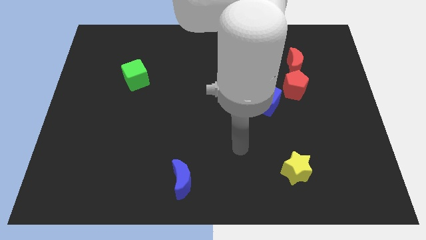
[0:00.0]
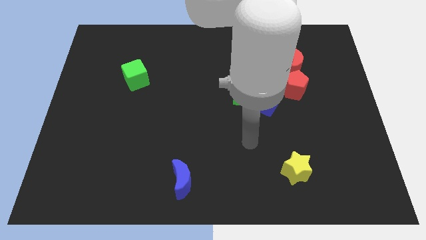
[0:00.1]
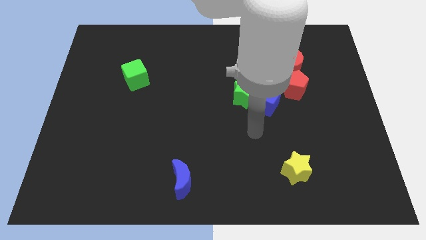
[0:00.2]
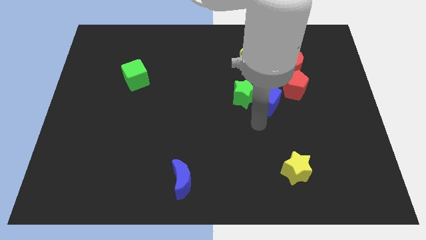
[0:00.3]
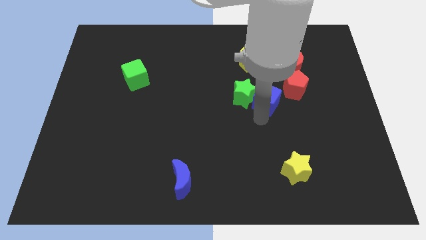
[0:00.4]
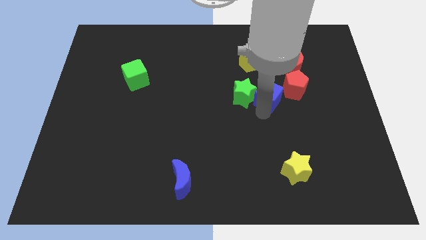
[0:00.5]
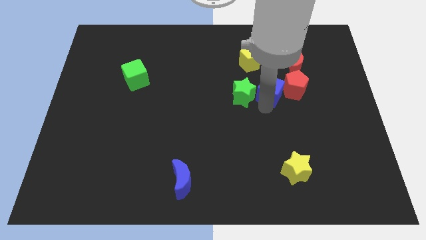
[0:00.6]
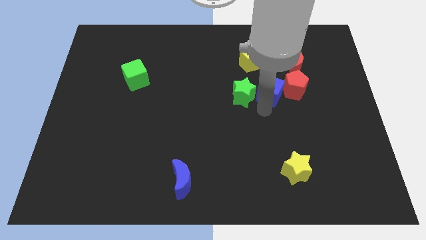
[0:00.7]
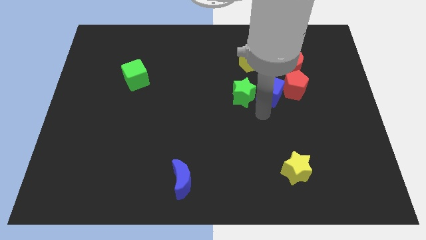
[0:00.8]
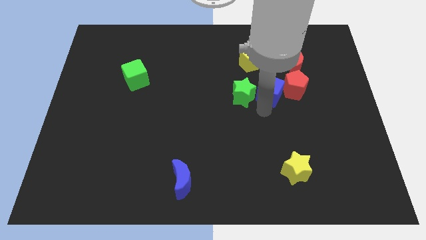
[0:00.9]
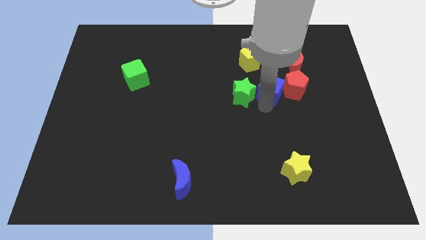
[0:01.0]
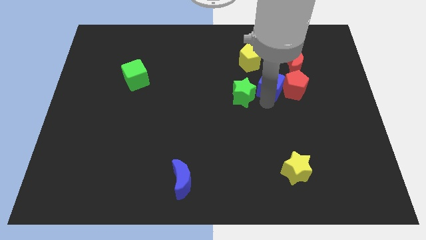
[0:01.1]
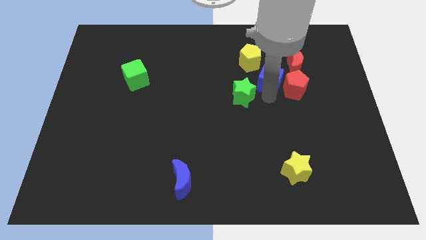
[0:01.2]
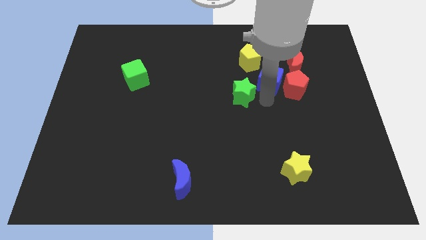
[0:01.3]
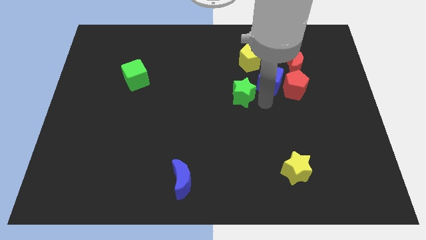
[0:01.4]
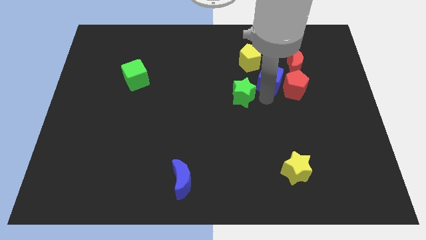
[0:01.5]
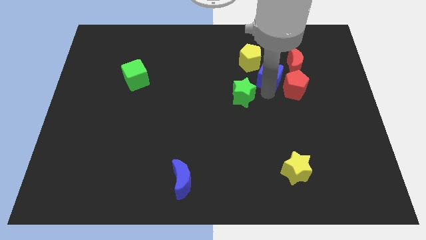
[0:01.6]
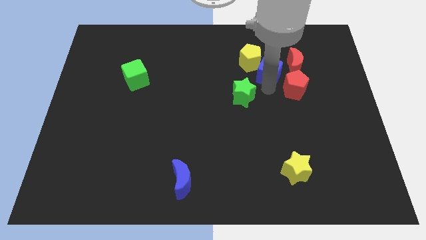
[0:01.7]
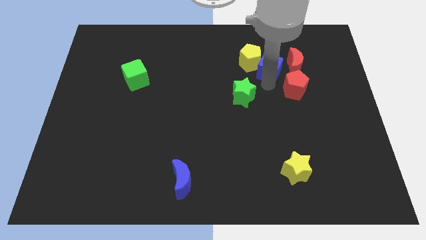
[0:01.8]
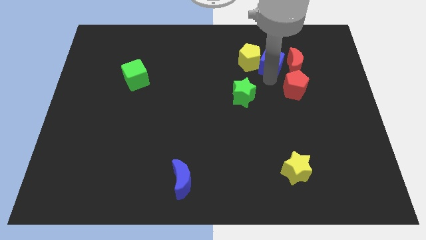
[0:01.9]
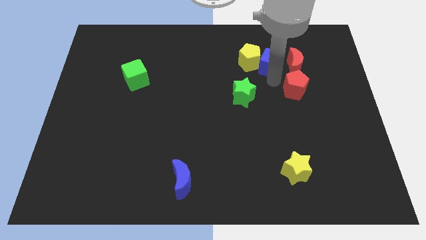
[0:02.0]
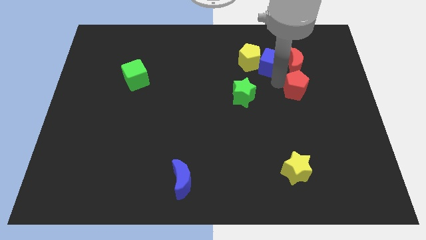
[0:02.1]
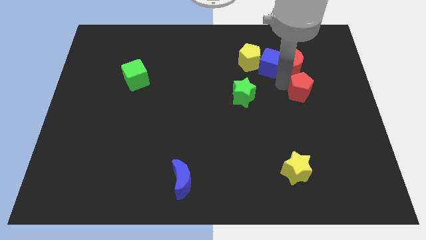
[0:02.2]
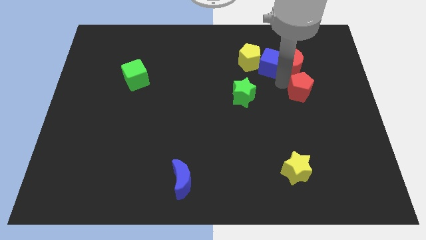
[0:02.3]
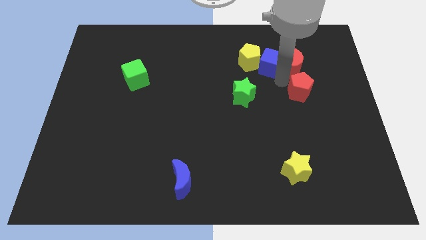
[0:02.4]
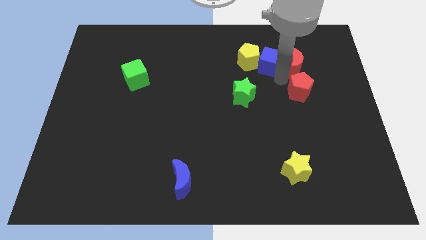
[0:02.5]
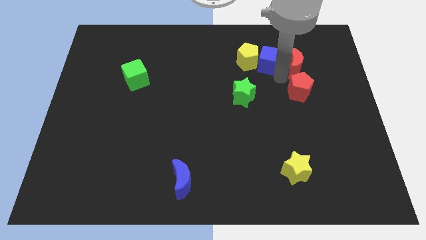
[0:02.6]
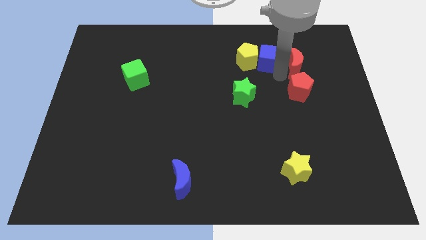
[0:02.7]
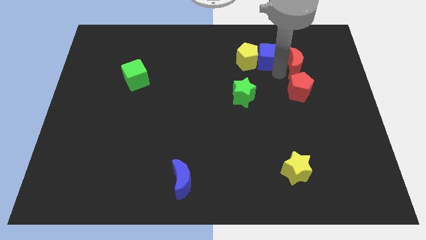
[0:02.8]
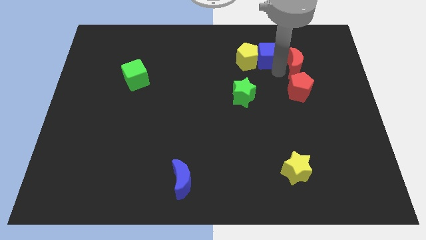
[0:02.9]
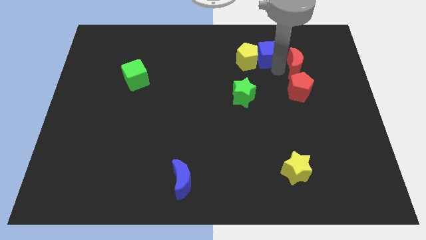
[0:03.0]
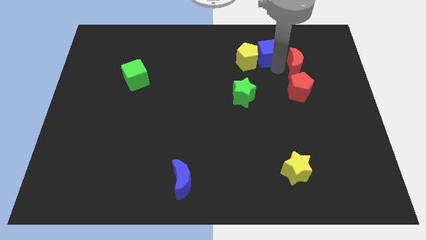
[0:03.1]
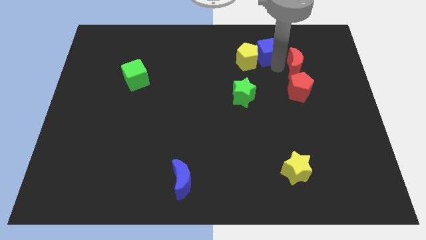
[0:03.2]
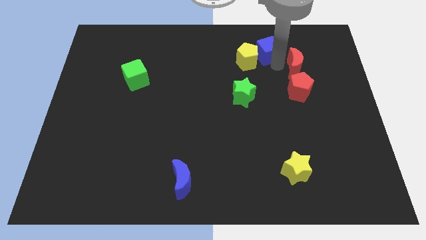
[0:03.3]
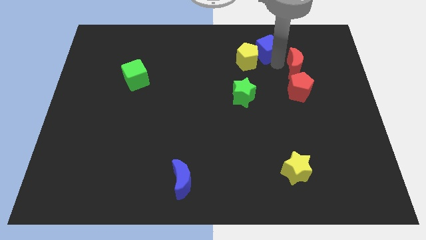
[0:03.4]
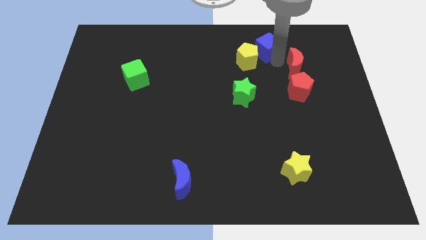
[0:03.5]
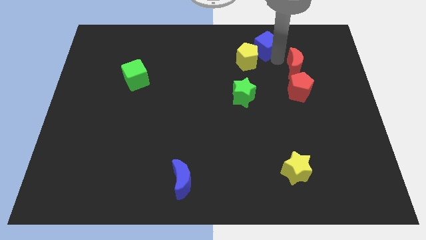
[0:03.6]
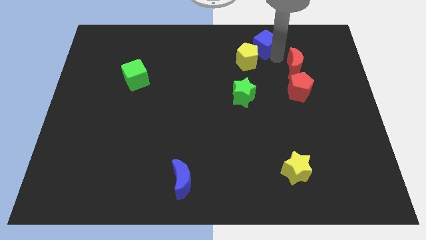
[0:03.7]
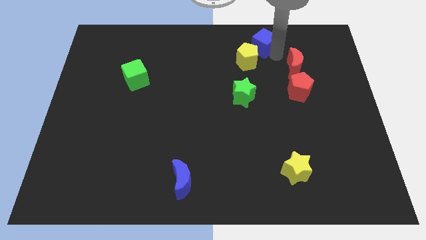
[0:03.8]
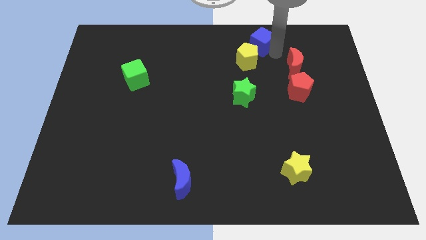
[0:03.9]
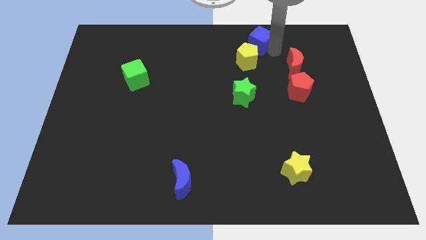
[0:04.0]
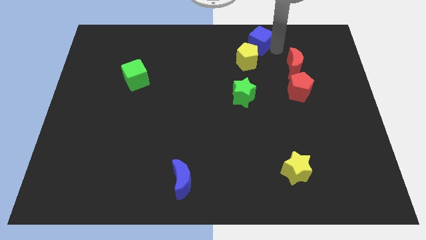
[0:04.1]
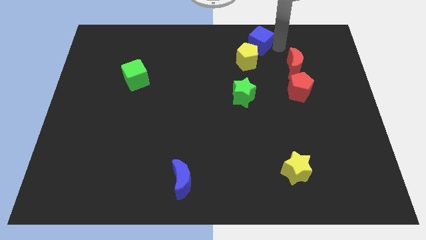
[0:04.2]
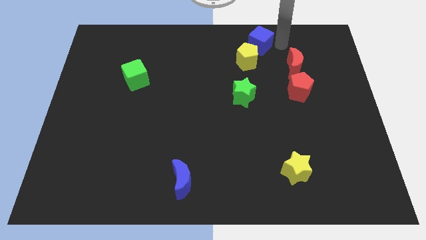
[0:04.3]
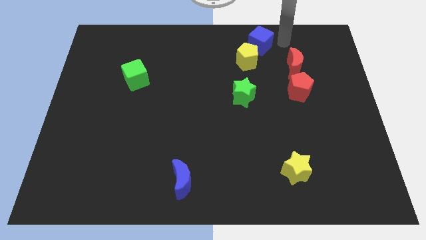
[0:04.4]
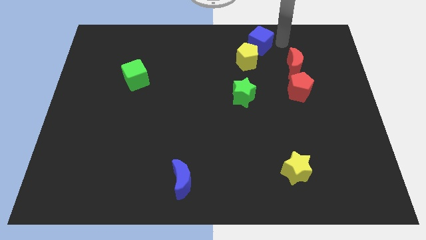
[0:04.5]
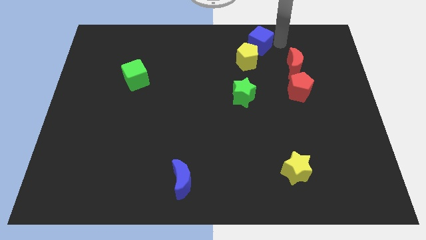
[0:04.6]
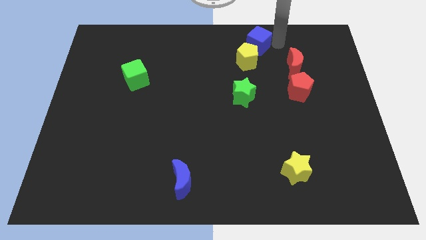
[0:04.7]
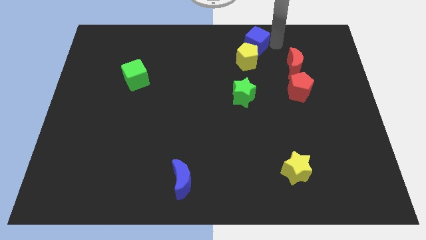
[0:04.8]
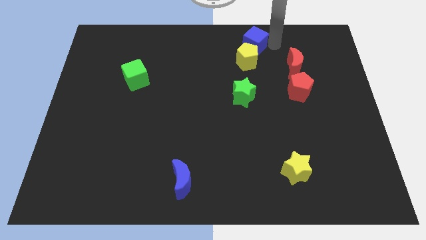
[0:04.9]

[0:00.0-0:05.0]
move the blue cube to the towards your base

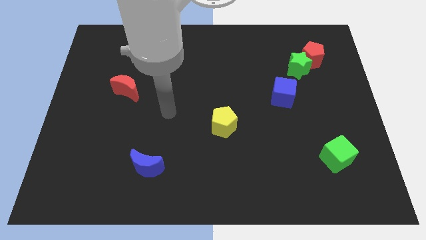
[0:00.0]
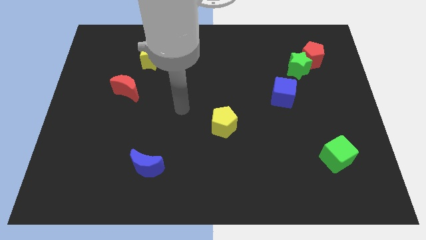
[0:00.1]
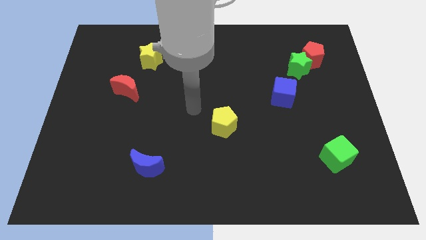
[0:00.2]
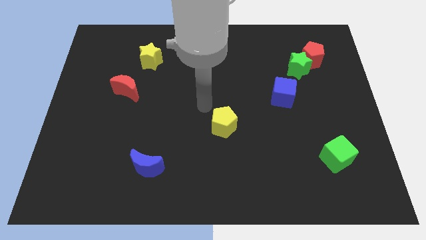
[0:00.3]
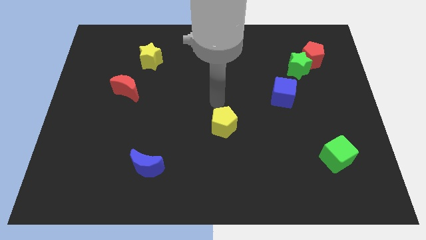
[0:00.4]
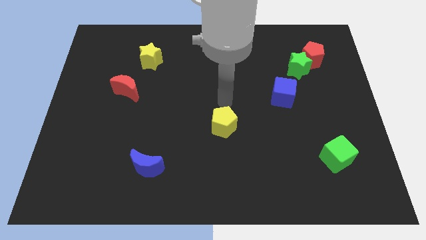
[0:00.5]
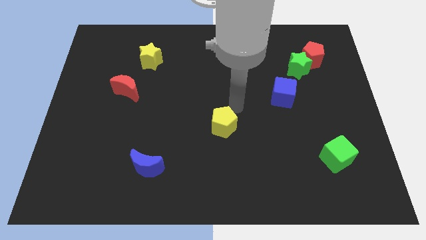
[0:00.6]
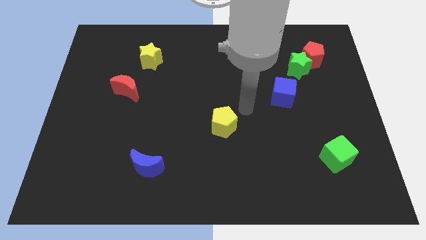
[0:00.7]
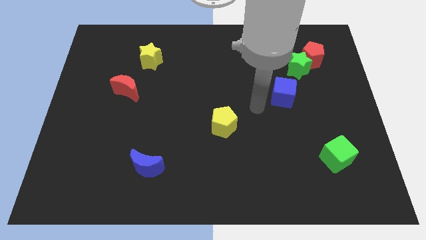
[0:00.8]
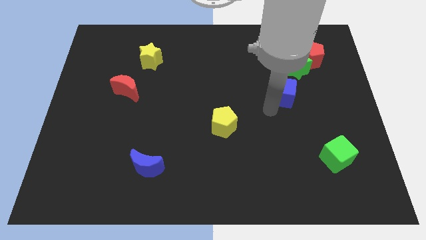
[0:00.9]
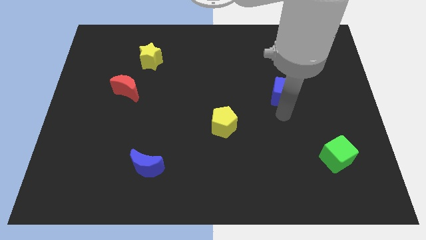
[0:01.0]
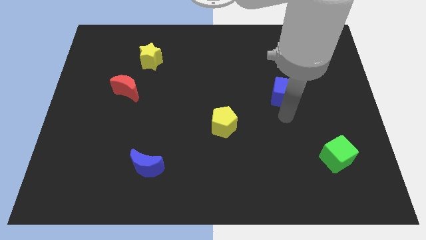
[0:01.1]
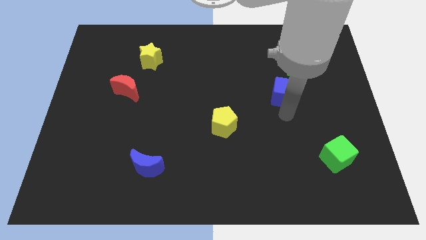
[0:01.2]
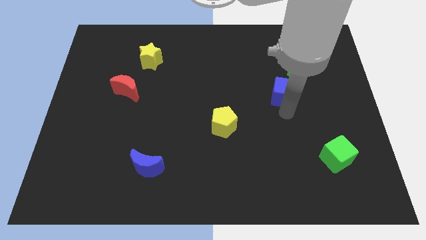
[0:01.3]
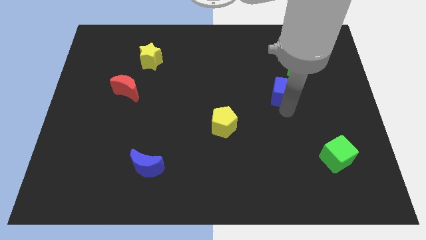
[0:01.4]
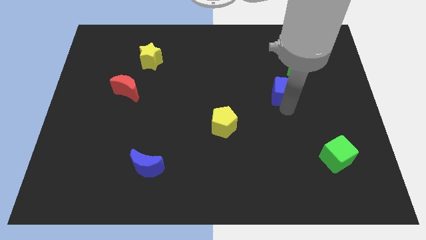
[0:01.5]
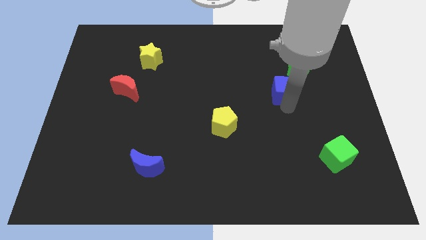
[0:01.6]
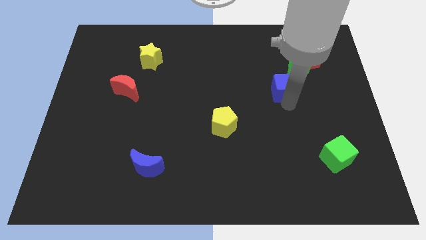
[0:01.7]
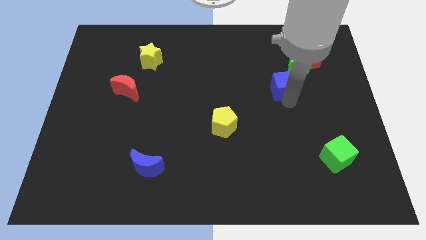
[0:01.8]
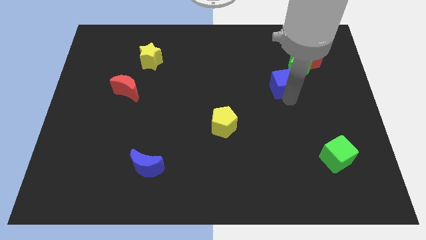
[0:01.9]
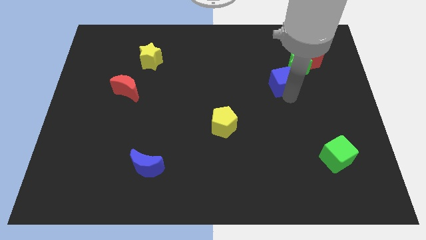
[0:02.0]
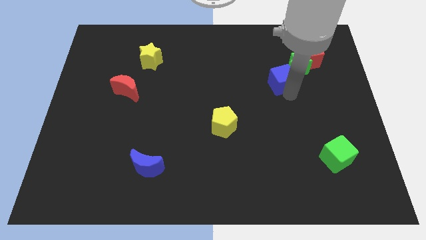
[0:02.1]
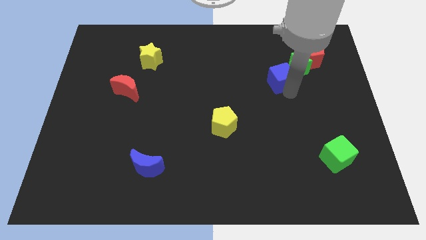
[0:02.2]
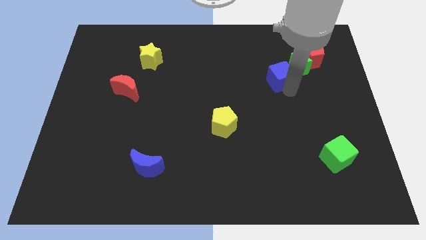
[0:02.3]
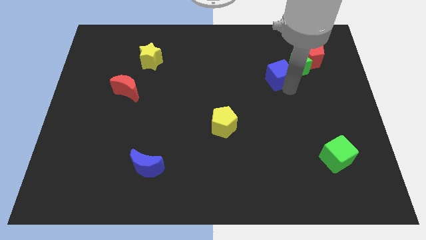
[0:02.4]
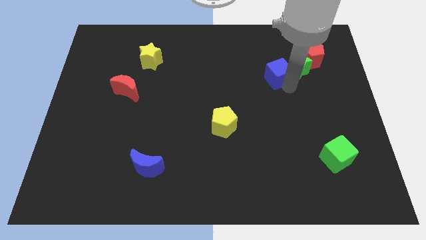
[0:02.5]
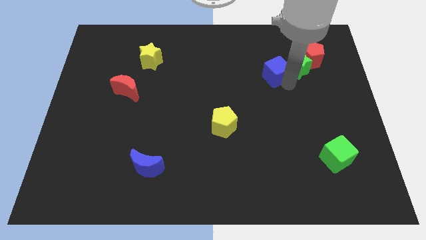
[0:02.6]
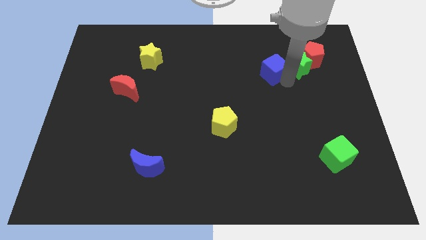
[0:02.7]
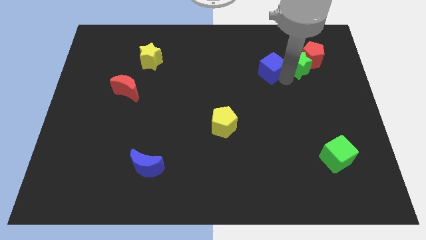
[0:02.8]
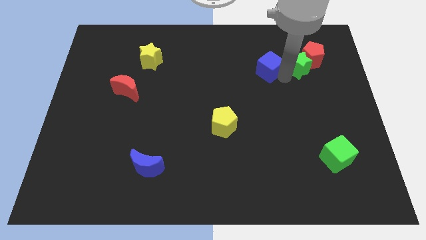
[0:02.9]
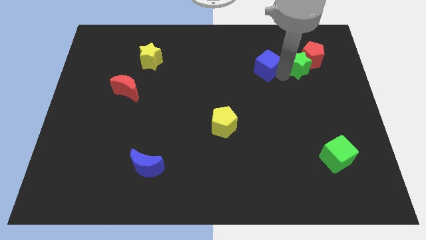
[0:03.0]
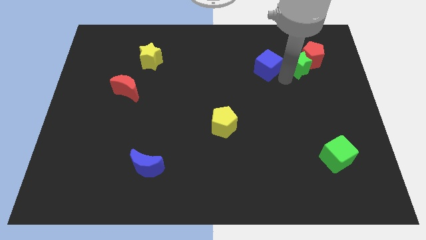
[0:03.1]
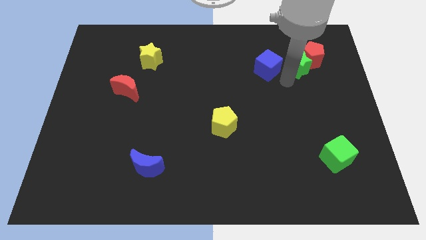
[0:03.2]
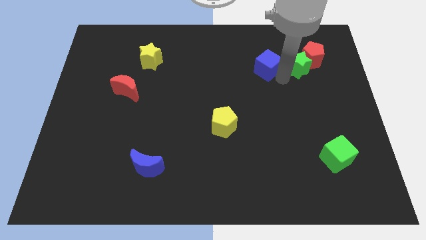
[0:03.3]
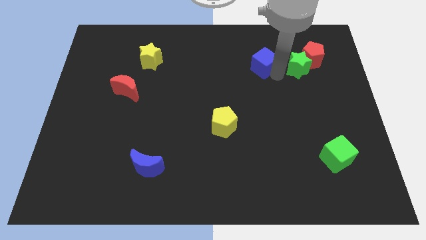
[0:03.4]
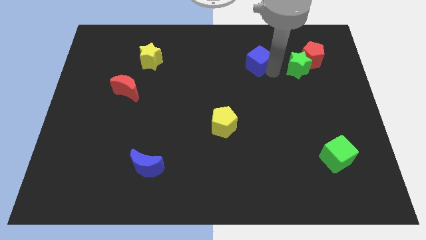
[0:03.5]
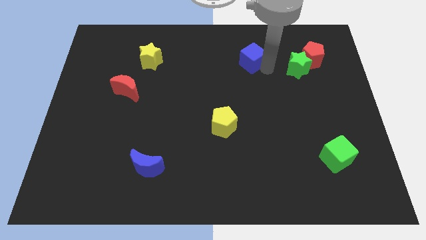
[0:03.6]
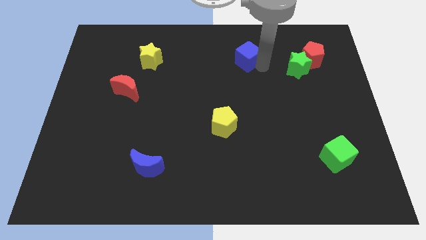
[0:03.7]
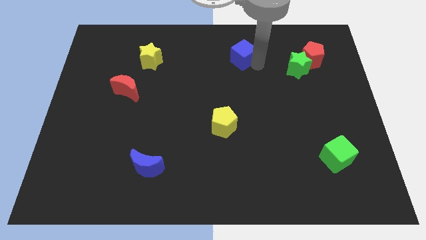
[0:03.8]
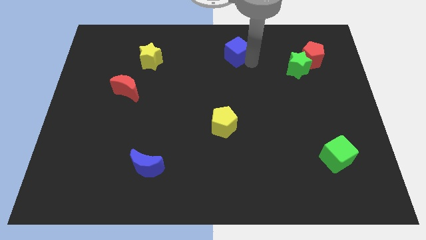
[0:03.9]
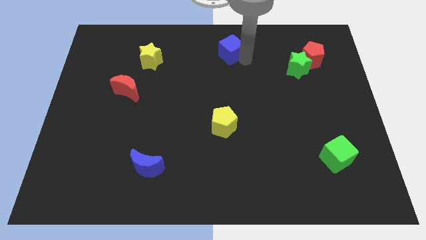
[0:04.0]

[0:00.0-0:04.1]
push the blue cube to the top side
